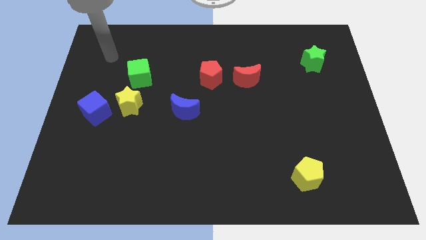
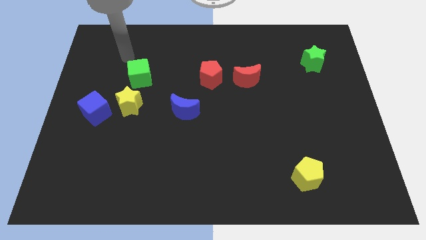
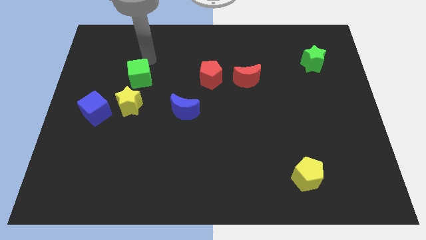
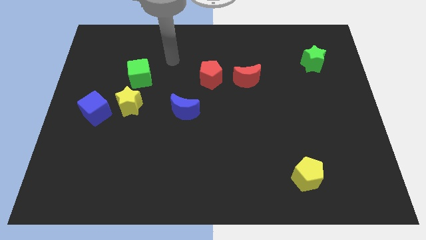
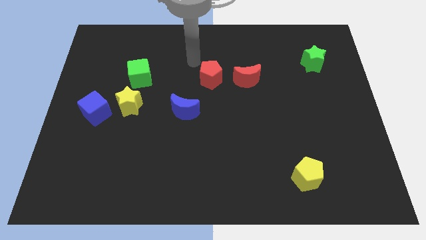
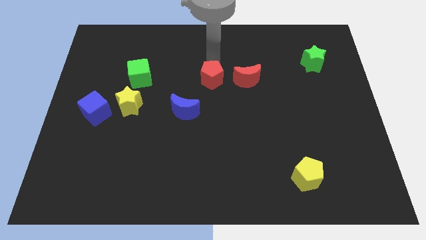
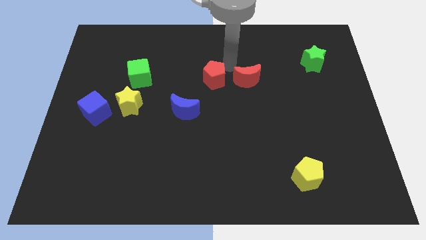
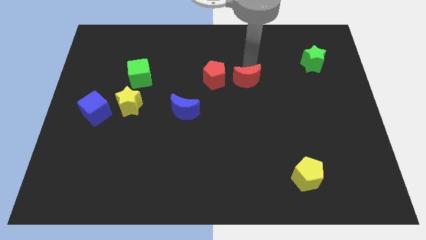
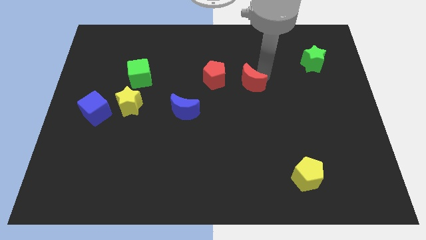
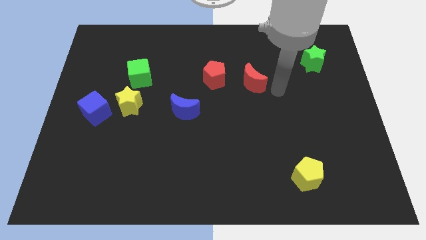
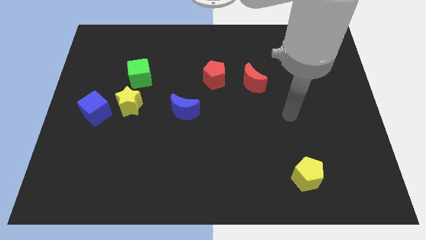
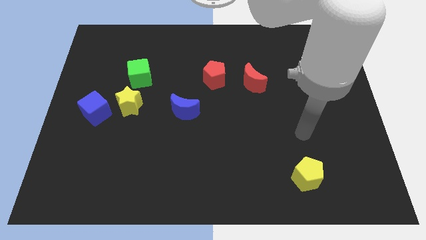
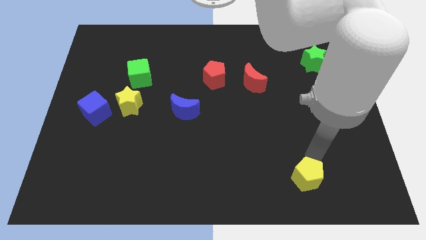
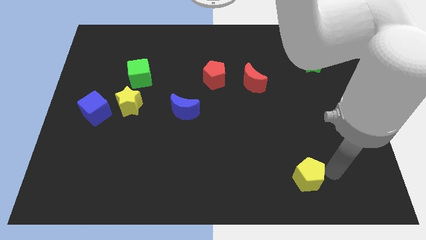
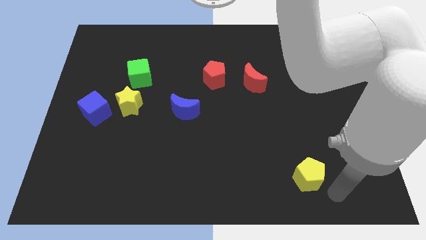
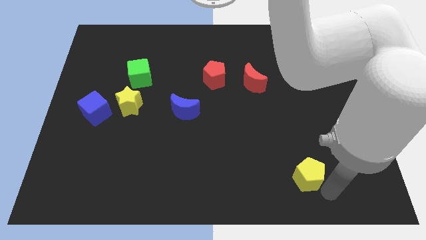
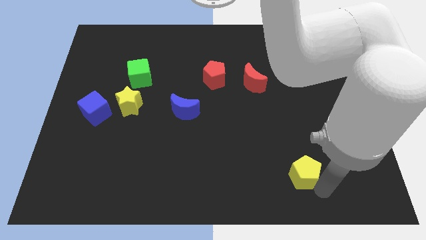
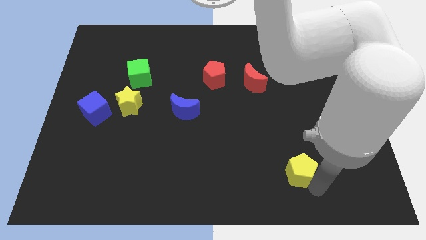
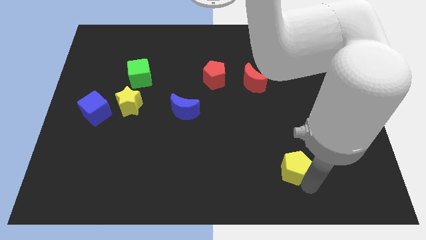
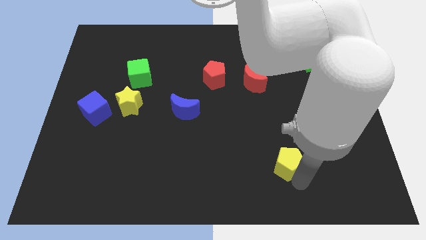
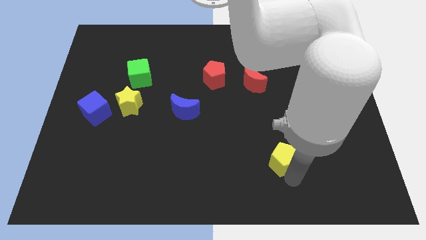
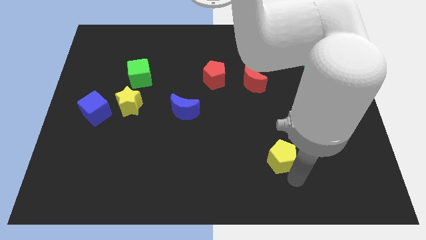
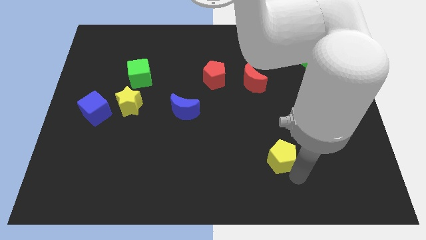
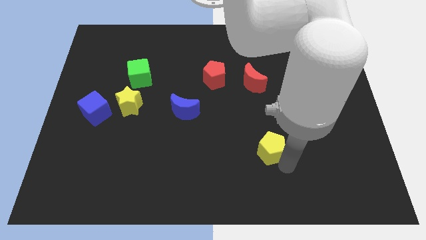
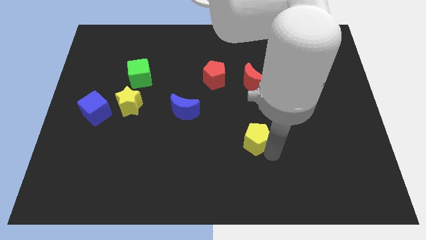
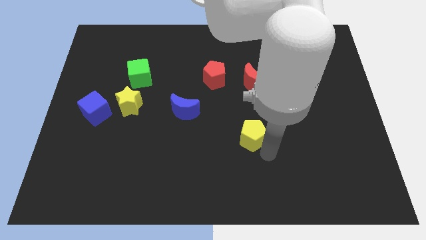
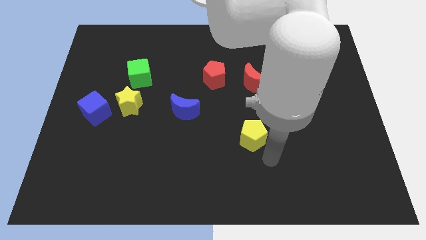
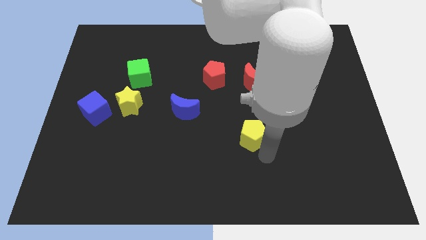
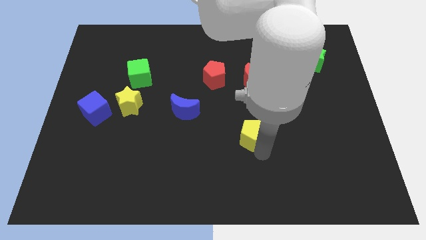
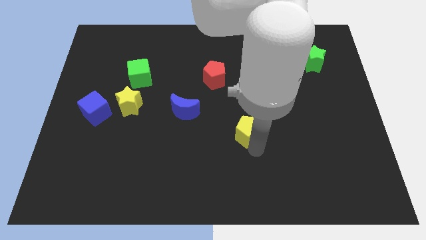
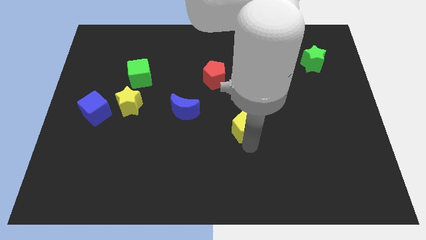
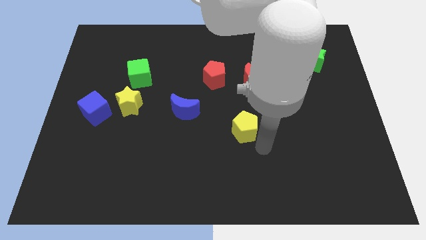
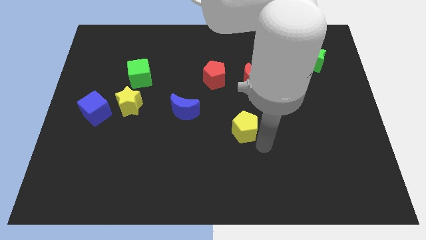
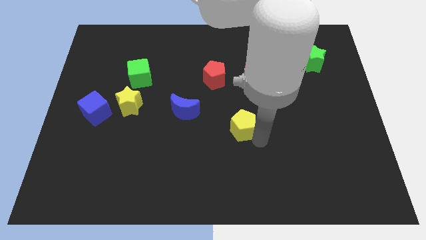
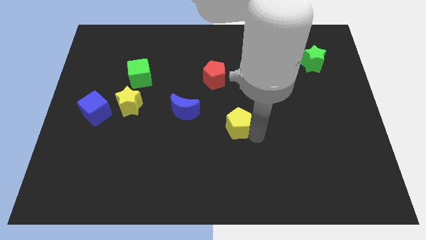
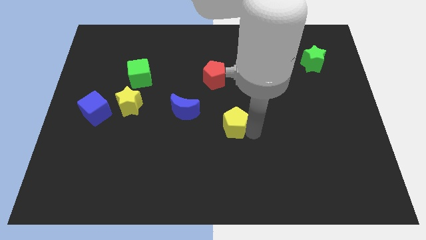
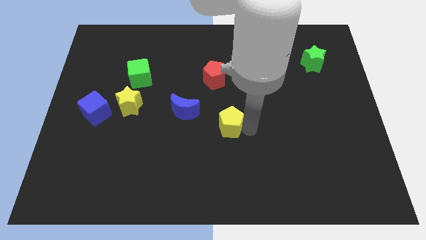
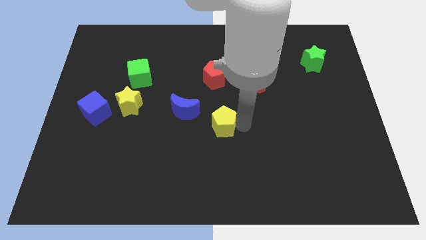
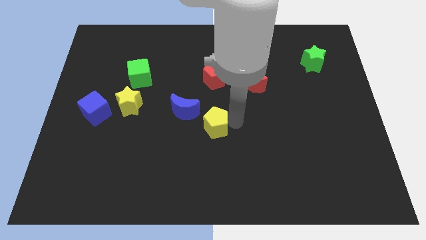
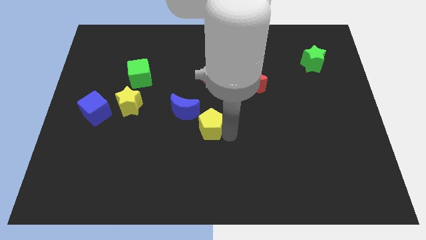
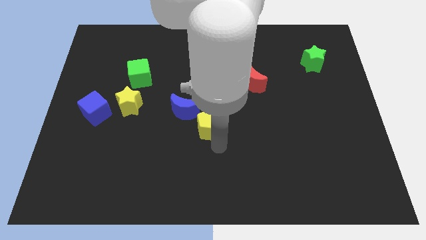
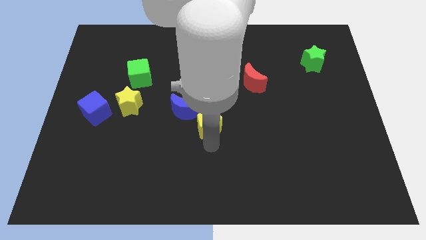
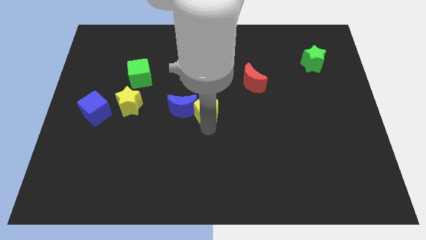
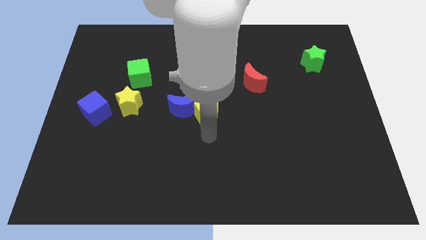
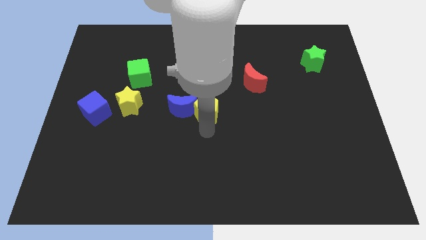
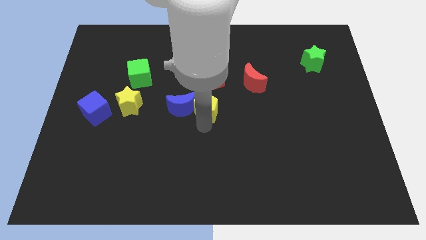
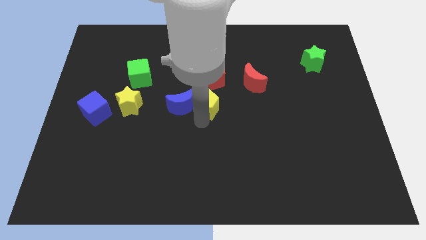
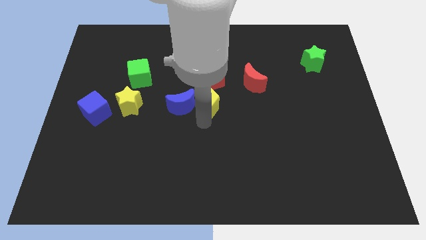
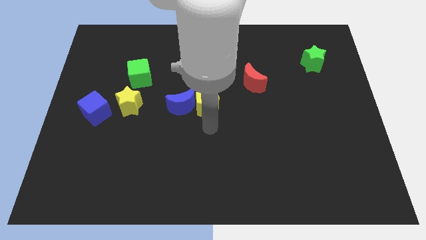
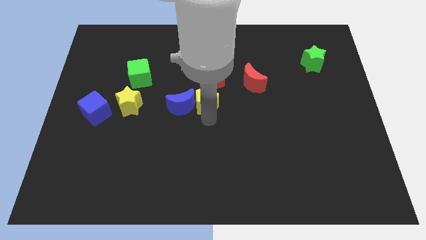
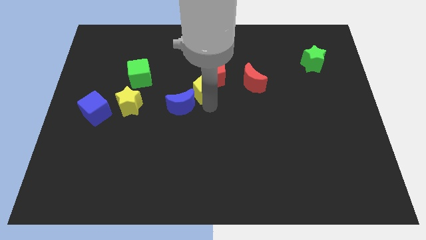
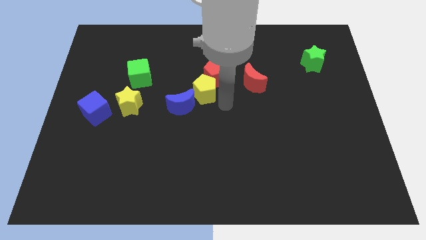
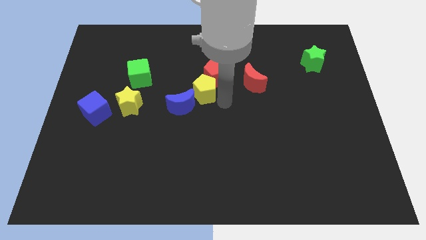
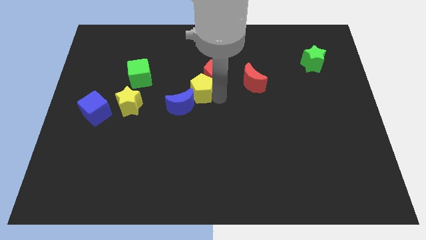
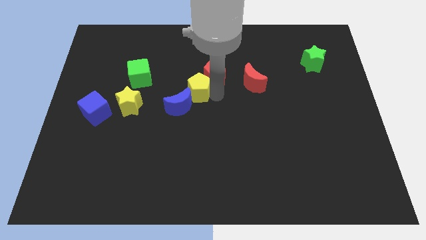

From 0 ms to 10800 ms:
put the yellow pentagon to the left of the red pentagon

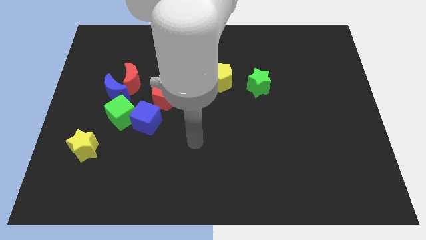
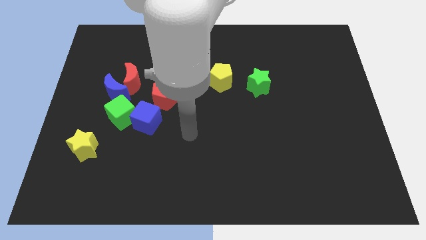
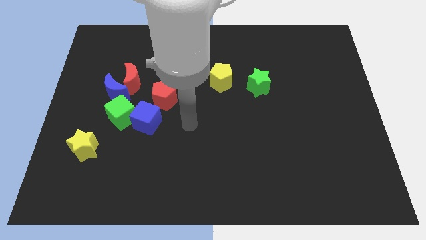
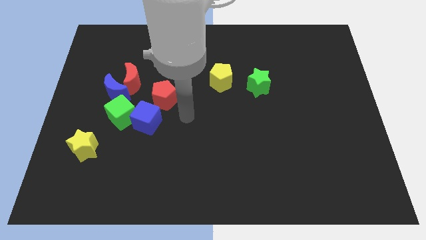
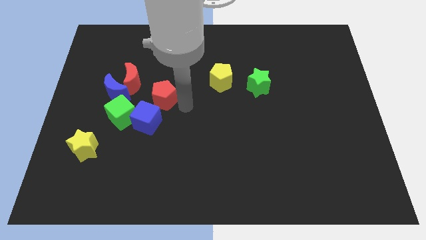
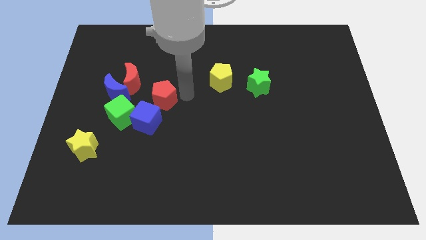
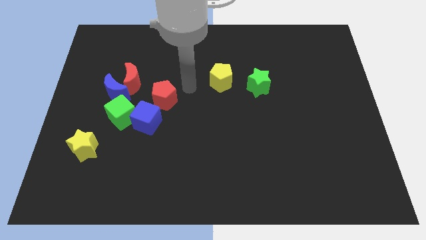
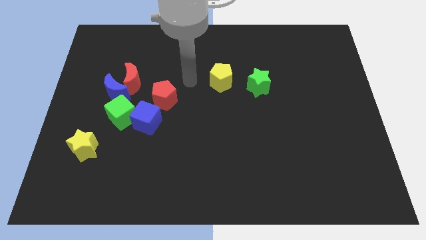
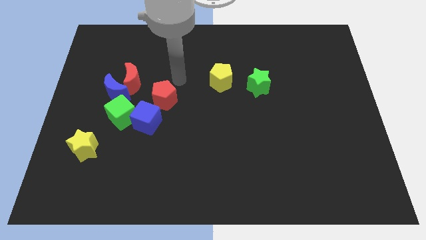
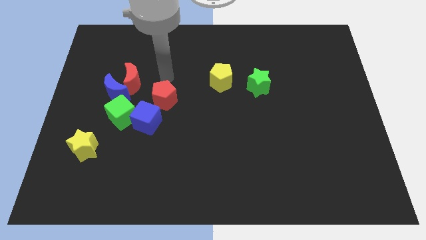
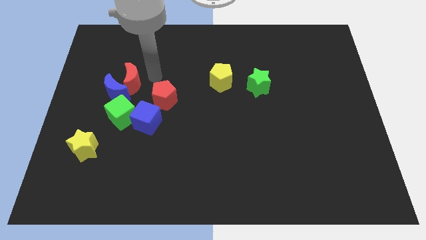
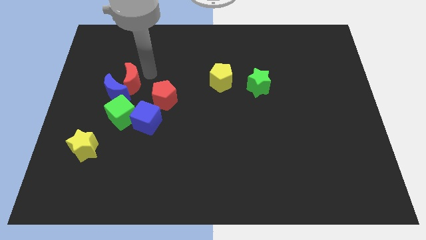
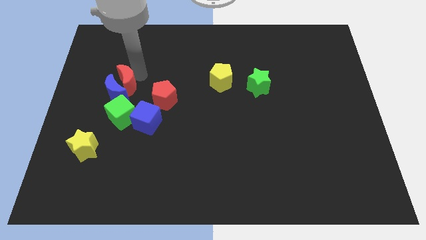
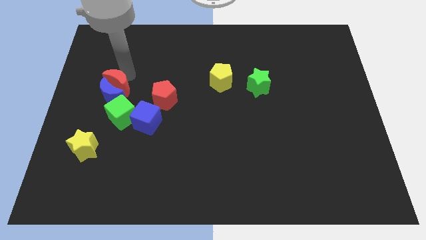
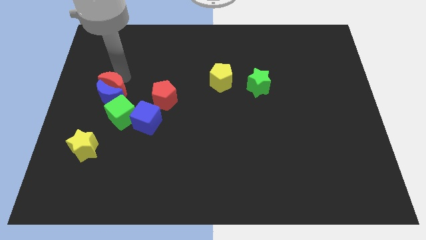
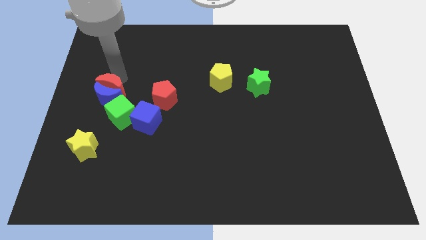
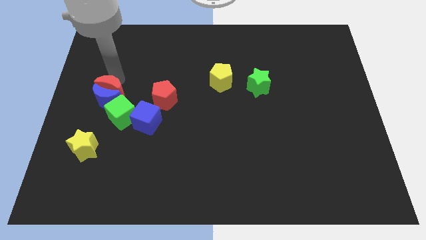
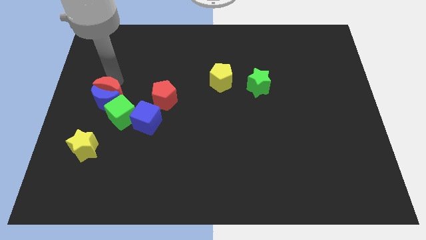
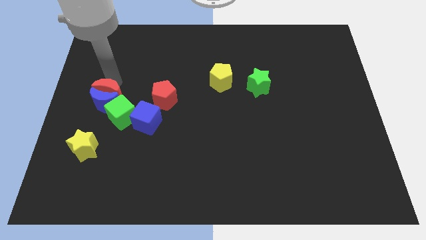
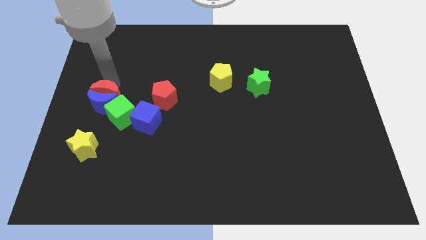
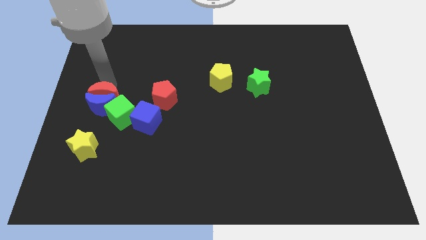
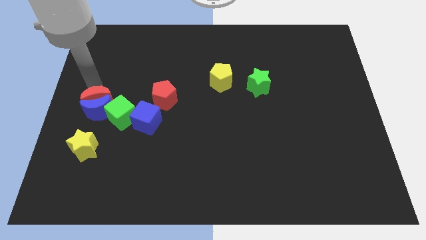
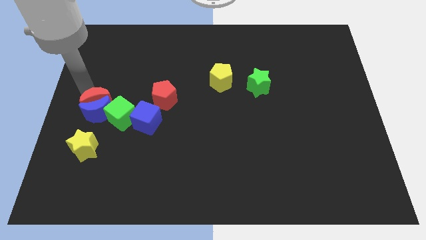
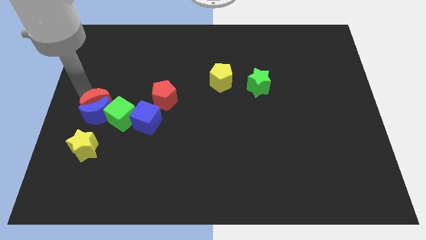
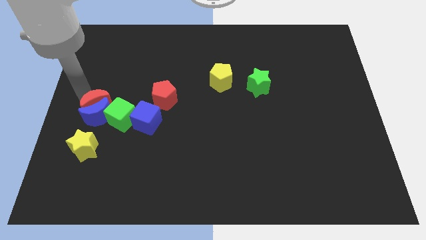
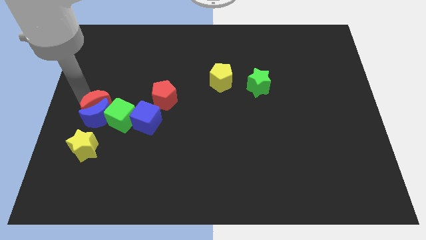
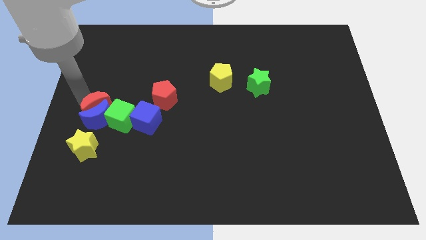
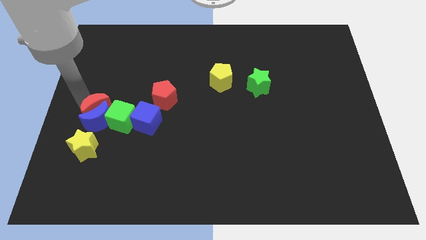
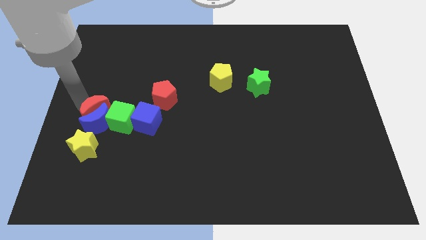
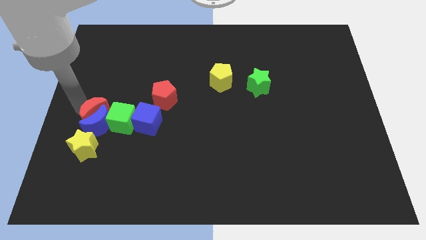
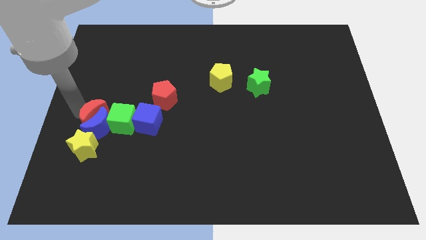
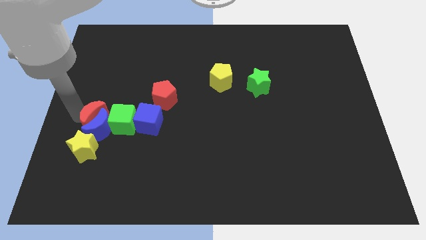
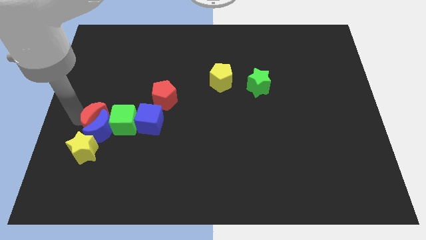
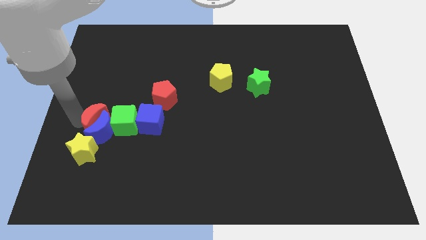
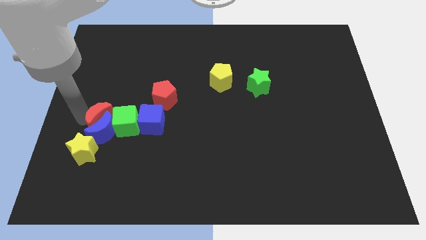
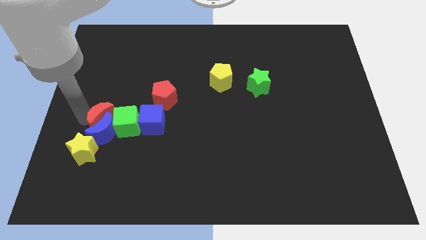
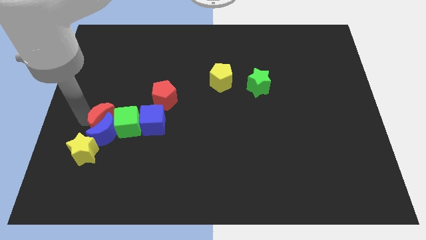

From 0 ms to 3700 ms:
put the blue moon to the right side of the yellow star
